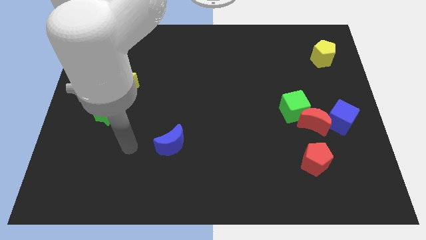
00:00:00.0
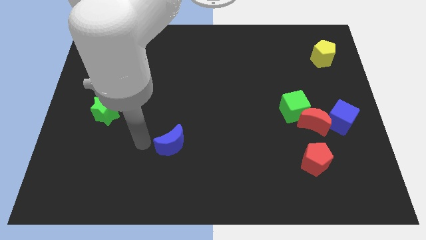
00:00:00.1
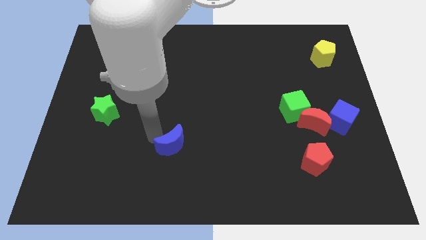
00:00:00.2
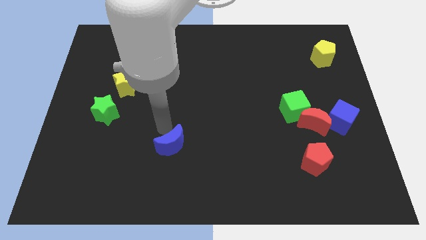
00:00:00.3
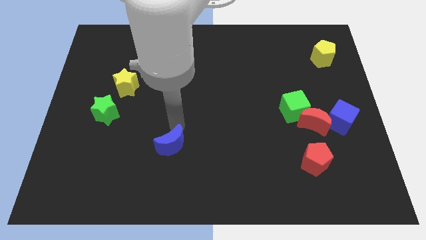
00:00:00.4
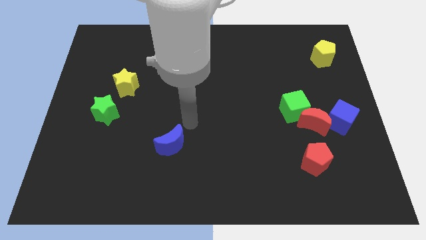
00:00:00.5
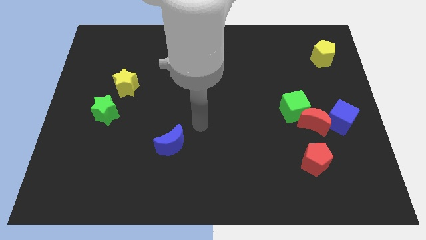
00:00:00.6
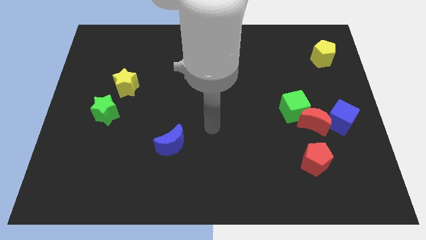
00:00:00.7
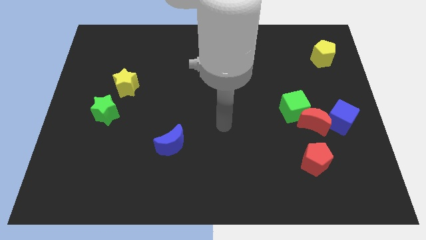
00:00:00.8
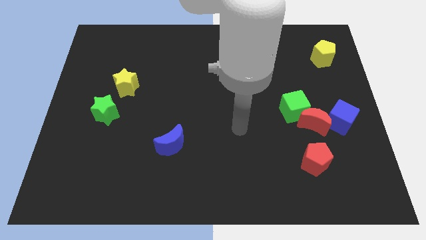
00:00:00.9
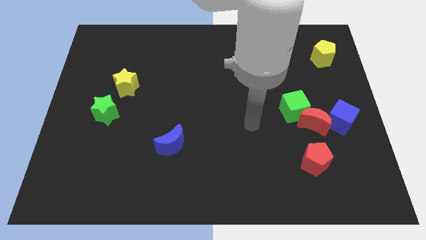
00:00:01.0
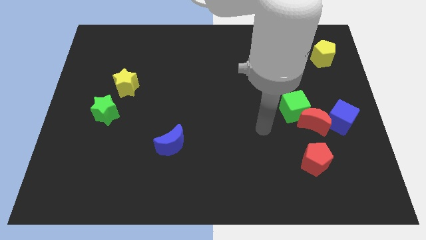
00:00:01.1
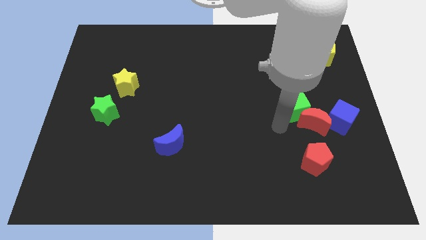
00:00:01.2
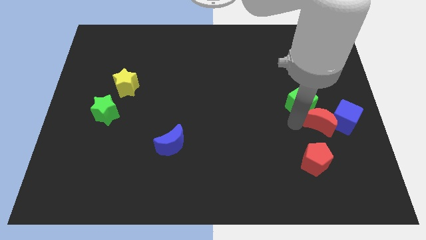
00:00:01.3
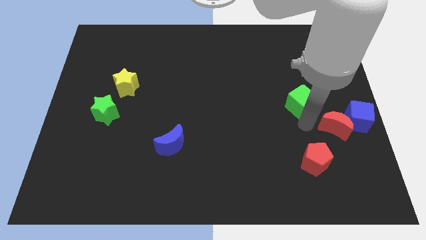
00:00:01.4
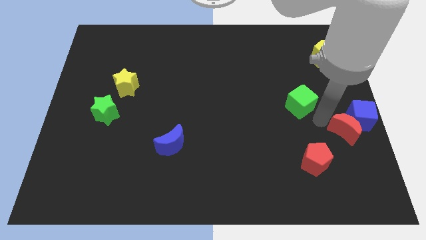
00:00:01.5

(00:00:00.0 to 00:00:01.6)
separate the green cube from the red moon

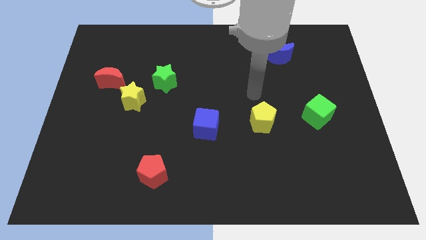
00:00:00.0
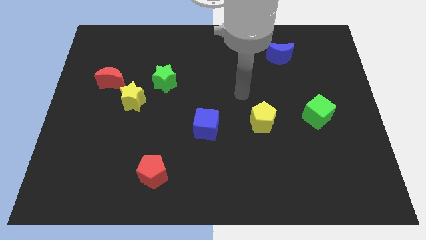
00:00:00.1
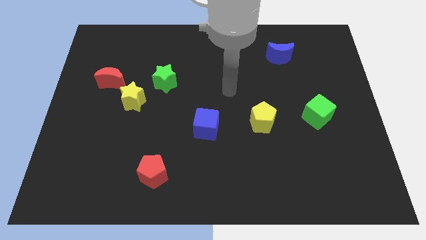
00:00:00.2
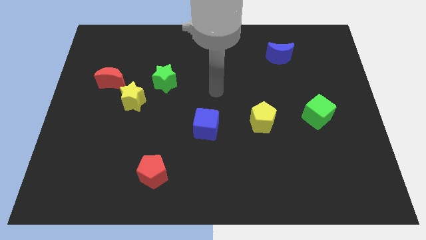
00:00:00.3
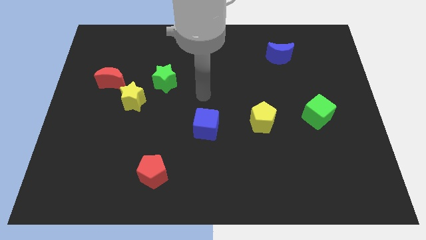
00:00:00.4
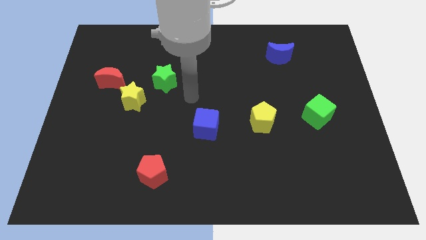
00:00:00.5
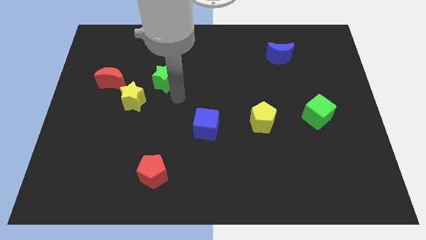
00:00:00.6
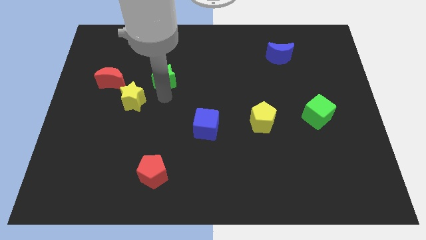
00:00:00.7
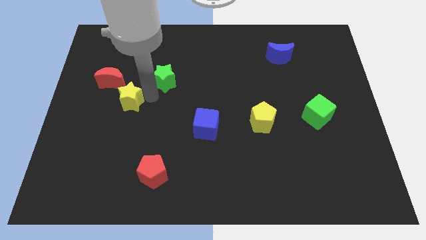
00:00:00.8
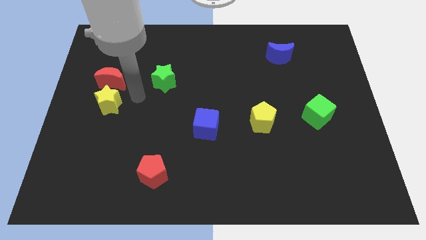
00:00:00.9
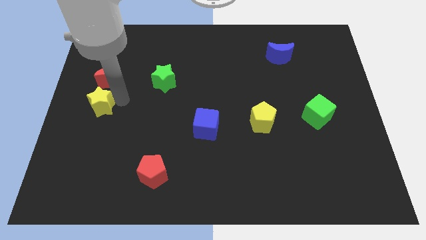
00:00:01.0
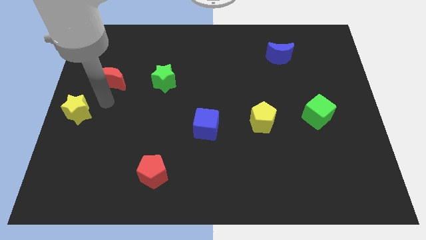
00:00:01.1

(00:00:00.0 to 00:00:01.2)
separate the red moon from the yellow star

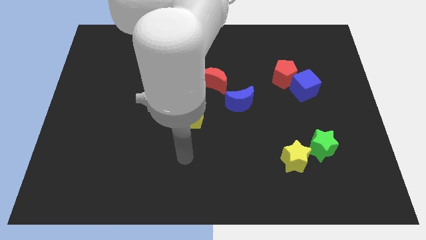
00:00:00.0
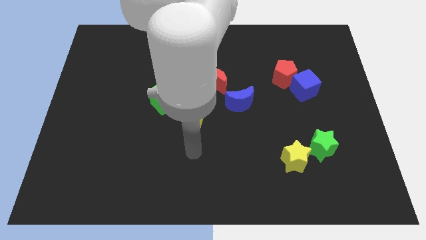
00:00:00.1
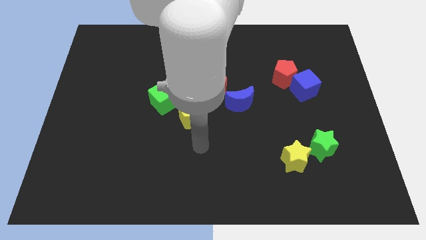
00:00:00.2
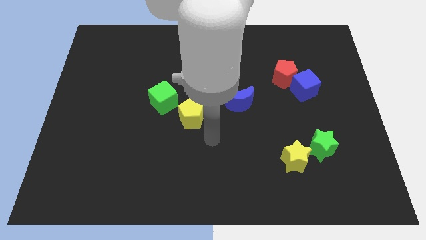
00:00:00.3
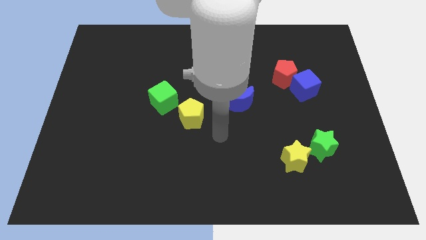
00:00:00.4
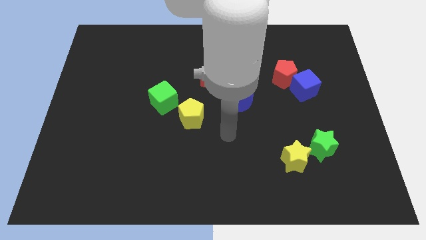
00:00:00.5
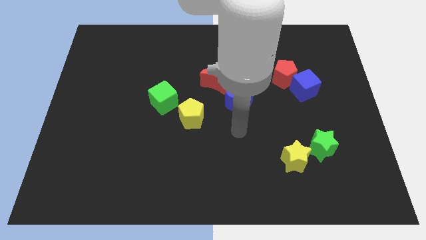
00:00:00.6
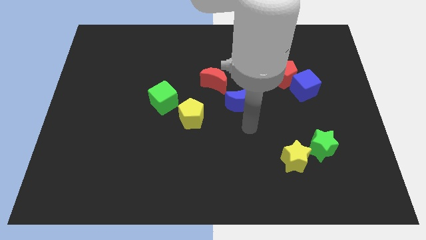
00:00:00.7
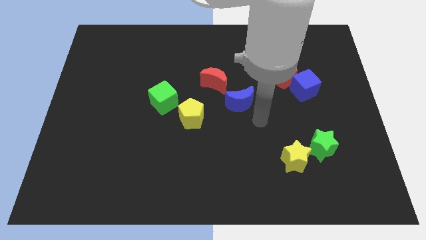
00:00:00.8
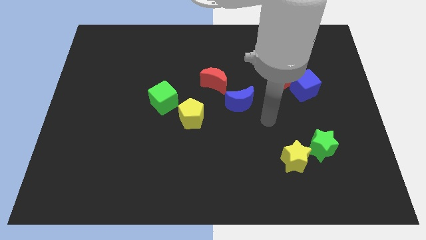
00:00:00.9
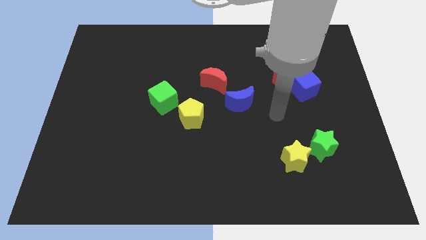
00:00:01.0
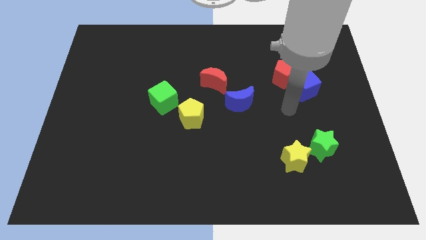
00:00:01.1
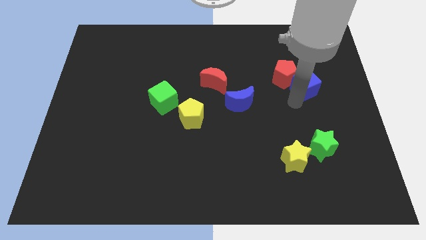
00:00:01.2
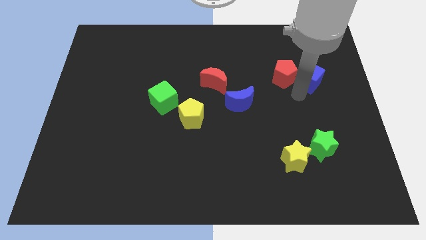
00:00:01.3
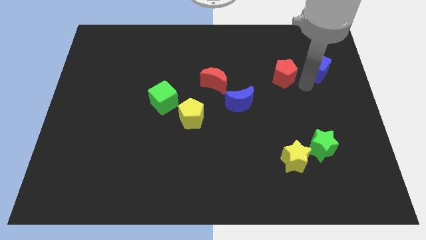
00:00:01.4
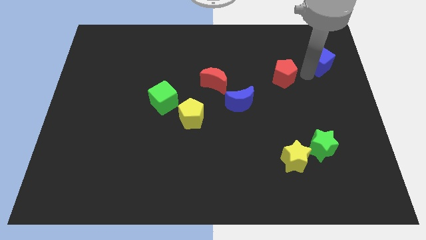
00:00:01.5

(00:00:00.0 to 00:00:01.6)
move the red pentagon away from the blue cube

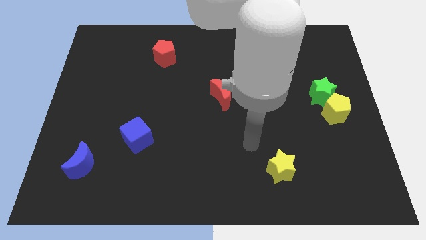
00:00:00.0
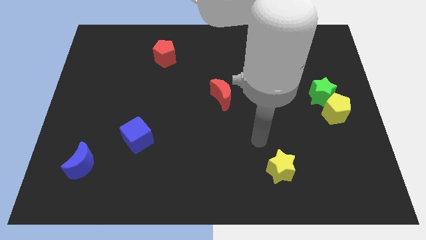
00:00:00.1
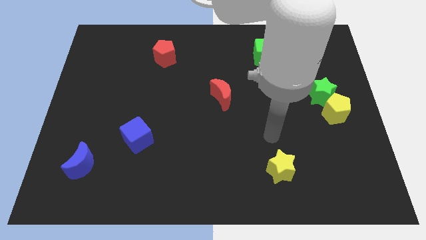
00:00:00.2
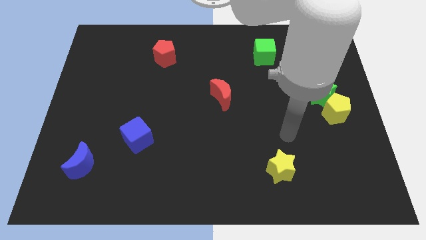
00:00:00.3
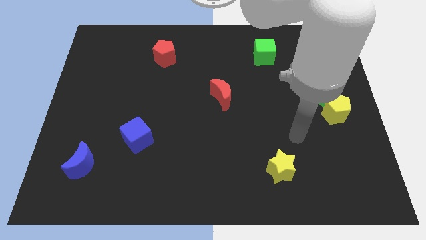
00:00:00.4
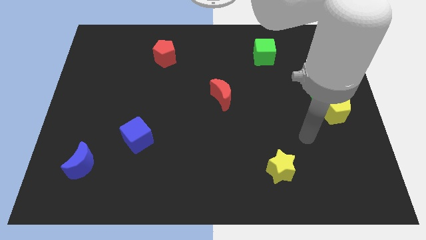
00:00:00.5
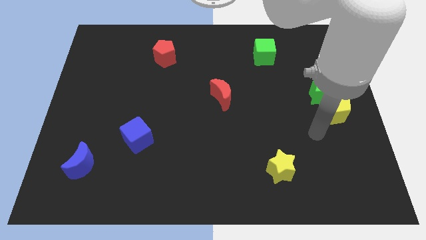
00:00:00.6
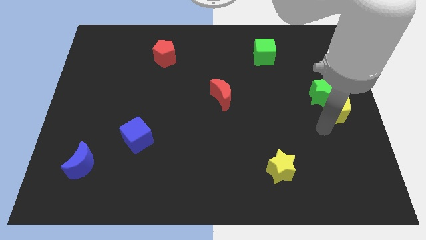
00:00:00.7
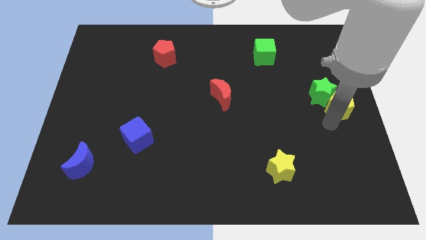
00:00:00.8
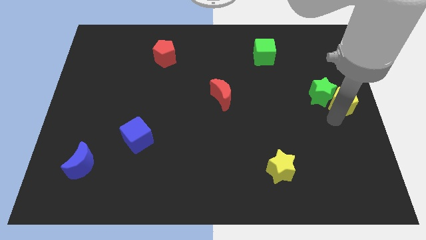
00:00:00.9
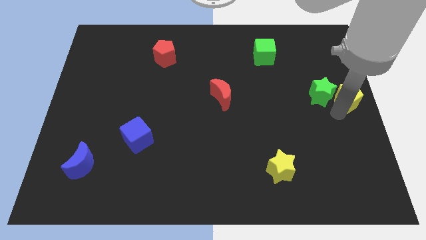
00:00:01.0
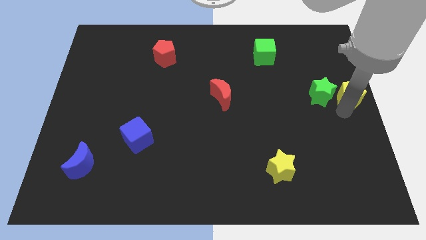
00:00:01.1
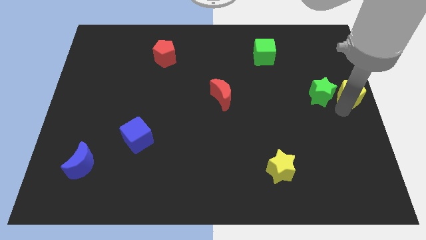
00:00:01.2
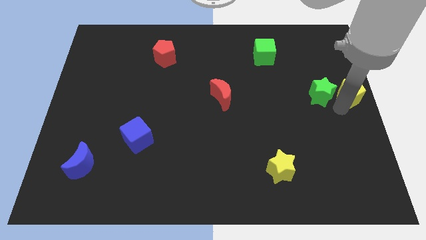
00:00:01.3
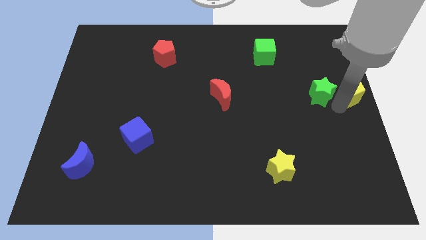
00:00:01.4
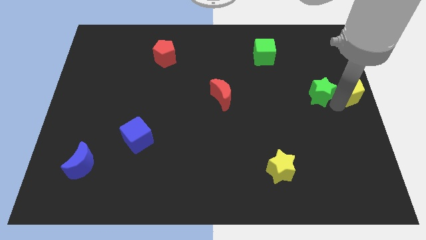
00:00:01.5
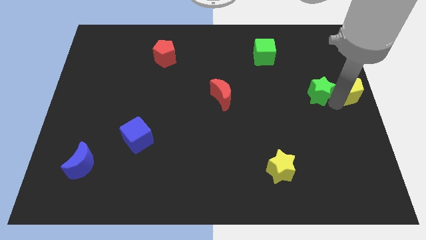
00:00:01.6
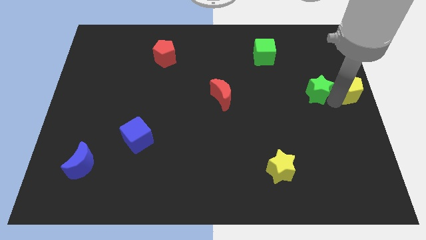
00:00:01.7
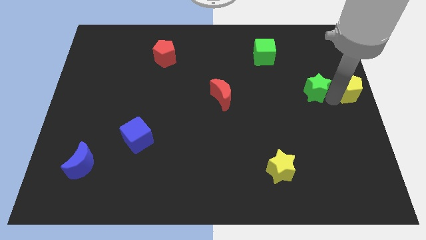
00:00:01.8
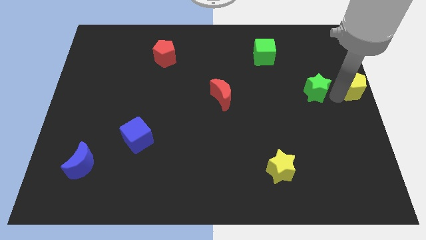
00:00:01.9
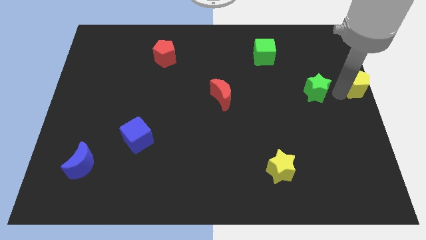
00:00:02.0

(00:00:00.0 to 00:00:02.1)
pull the green star apart from the yellow pentagon

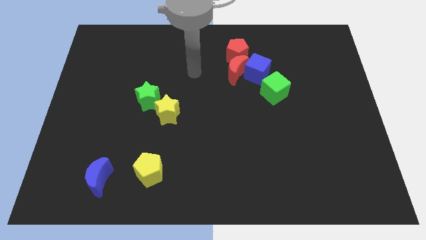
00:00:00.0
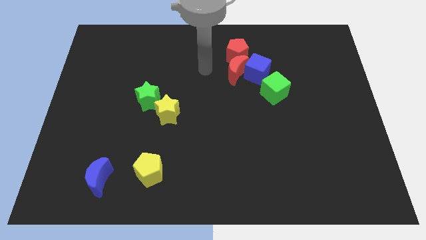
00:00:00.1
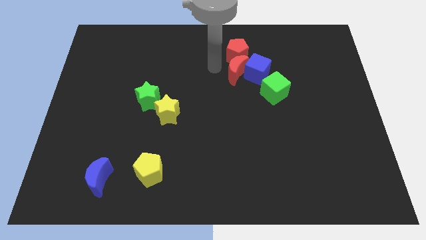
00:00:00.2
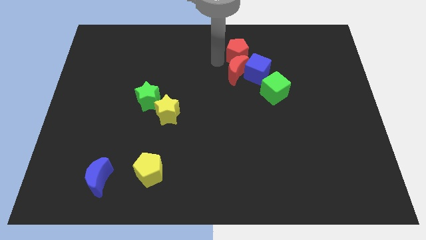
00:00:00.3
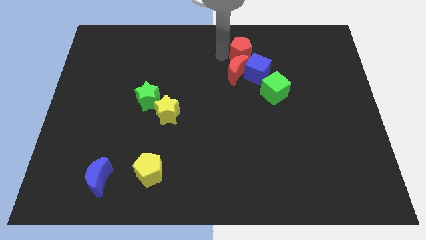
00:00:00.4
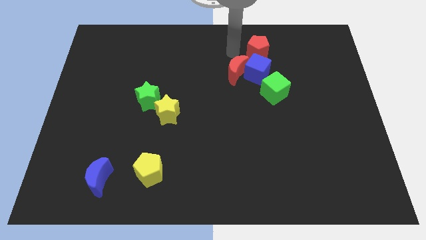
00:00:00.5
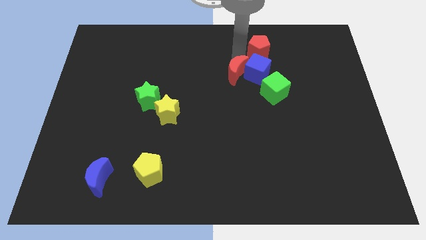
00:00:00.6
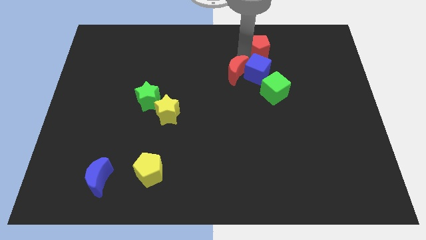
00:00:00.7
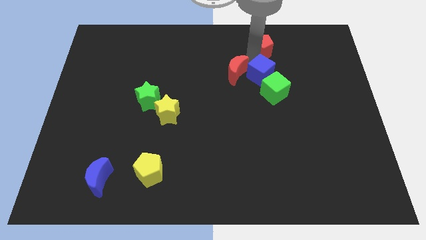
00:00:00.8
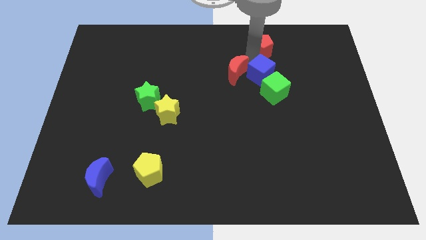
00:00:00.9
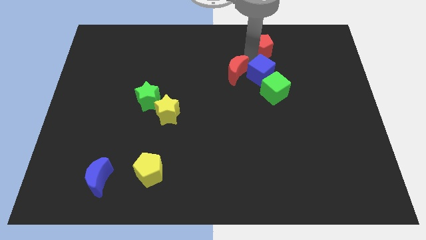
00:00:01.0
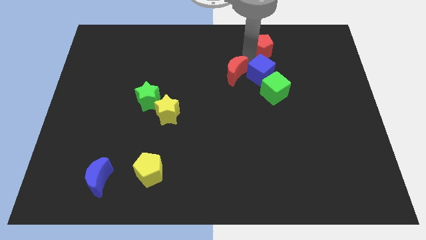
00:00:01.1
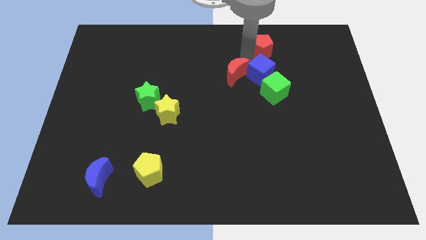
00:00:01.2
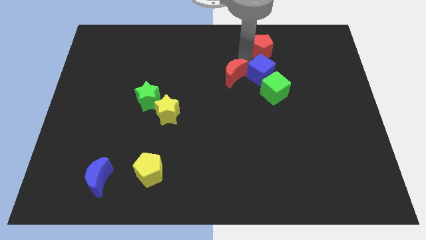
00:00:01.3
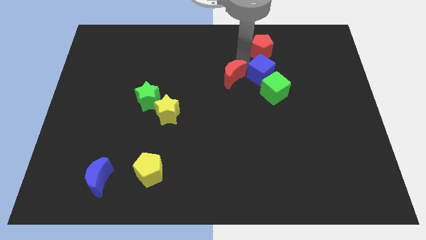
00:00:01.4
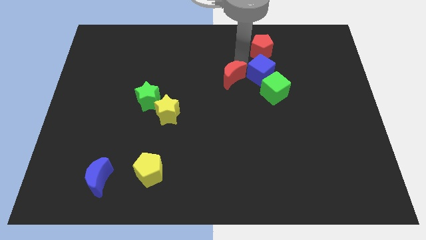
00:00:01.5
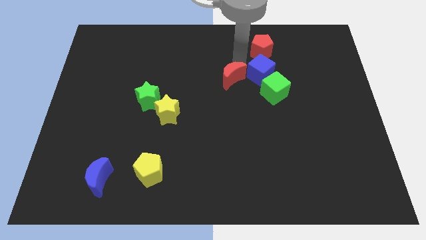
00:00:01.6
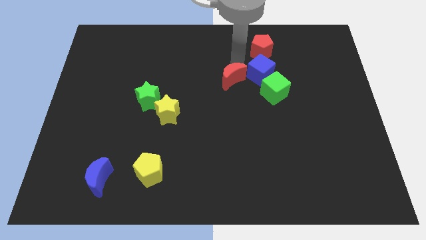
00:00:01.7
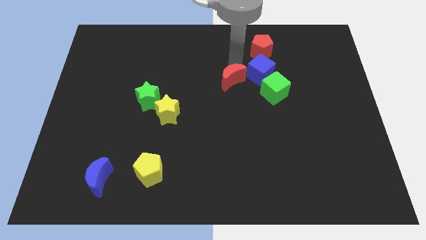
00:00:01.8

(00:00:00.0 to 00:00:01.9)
separate the red moon from the blue cube and red pentagon

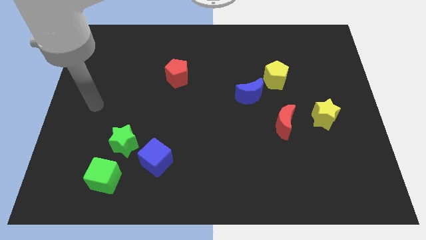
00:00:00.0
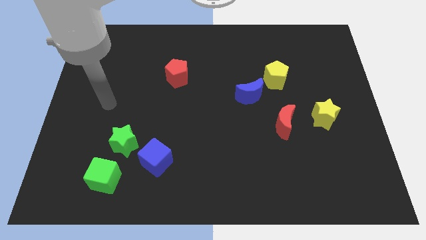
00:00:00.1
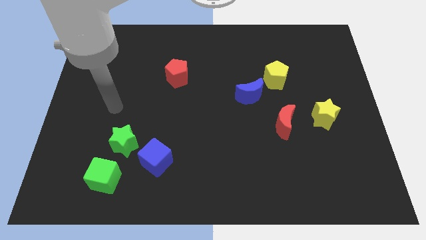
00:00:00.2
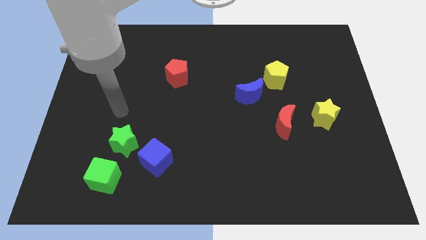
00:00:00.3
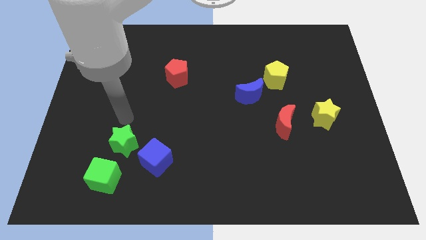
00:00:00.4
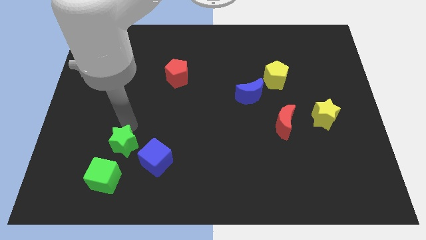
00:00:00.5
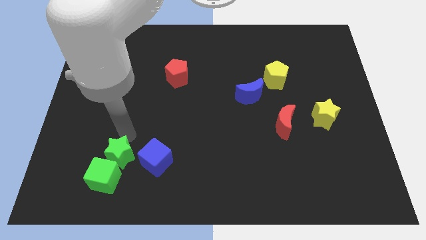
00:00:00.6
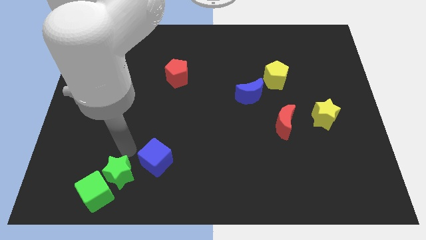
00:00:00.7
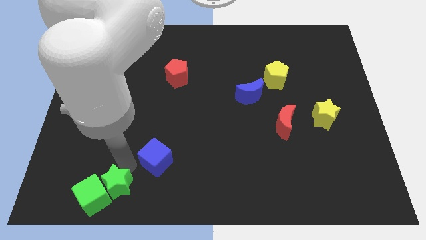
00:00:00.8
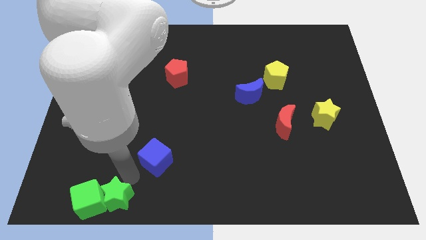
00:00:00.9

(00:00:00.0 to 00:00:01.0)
move the blue cube away from the green star

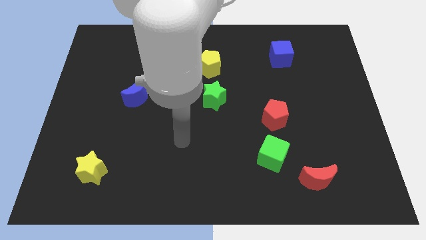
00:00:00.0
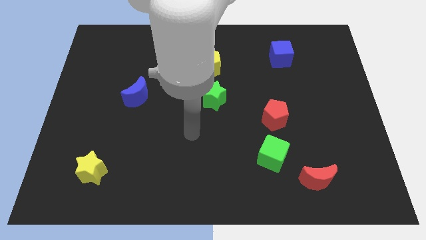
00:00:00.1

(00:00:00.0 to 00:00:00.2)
separate the red pentagon from the green cube
